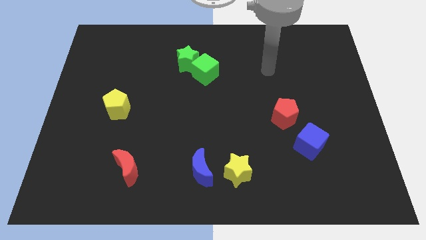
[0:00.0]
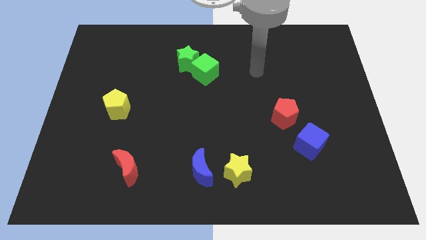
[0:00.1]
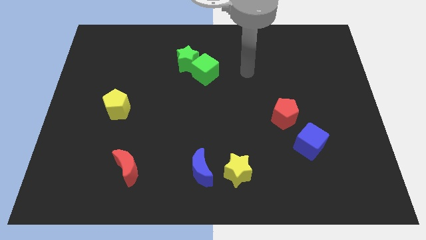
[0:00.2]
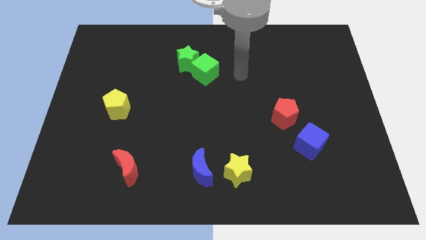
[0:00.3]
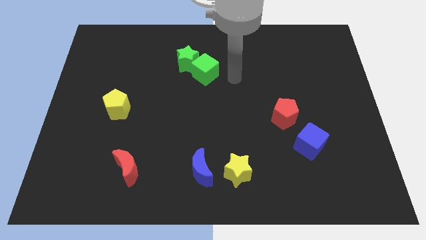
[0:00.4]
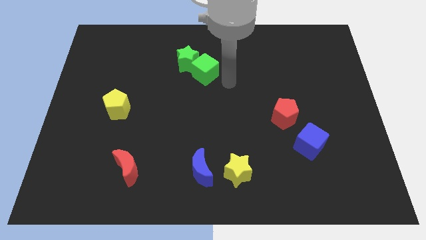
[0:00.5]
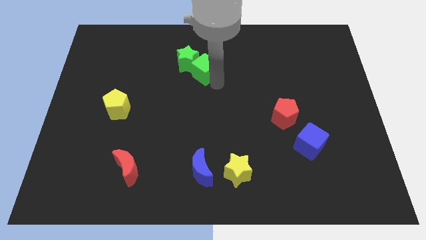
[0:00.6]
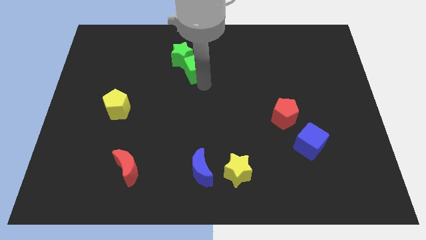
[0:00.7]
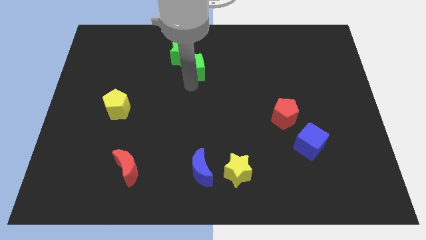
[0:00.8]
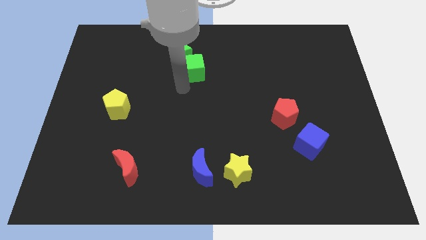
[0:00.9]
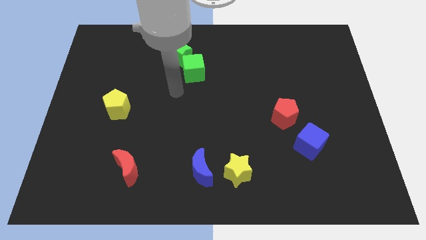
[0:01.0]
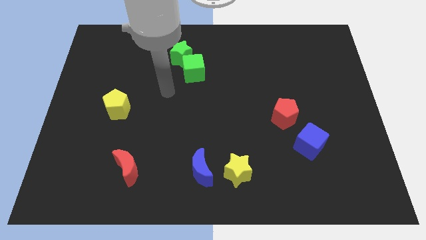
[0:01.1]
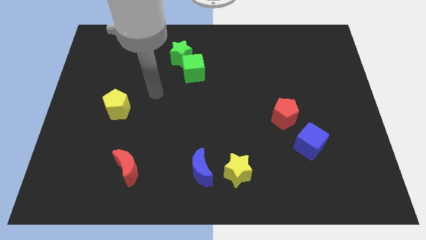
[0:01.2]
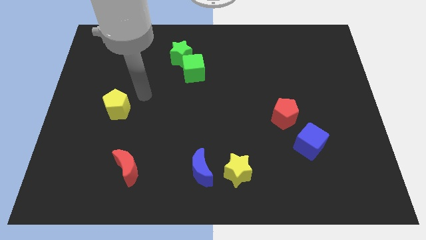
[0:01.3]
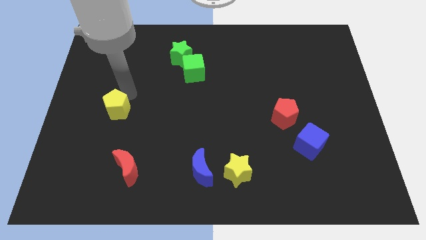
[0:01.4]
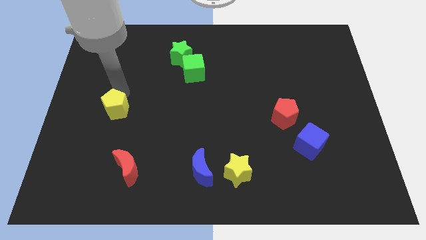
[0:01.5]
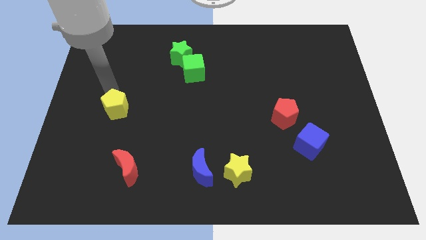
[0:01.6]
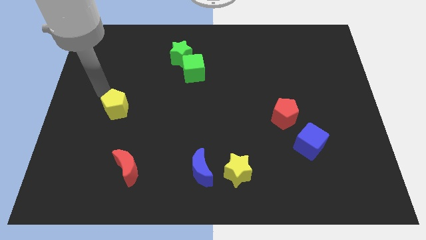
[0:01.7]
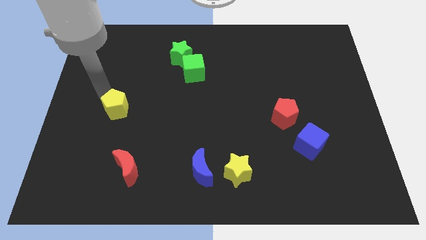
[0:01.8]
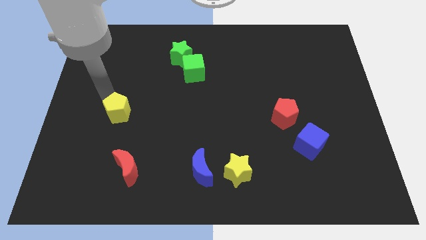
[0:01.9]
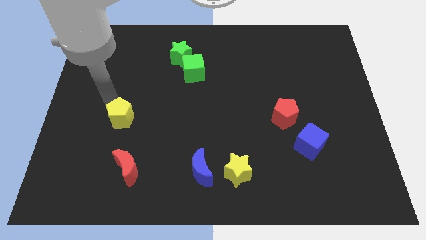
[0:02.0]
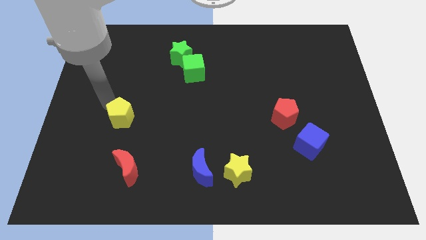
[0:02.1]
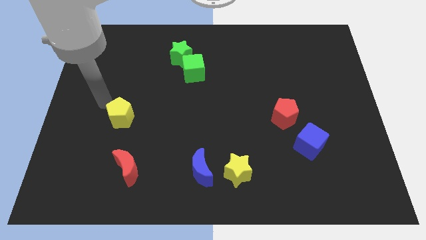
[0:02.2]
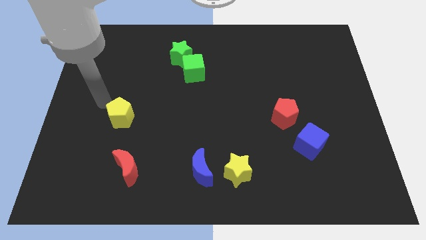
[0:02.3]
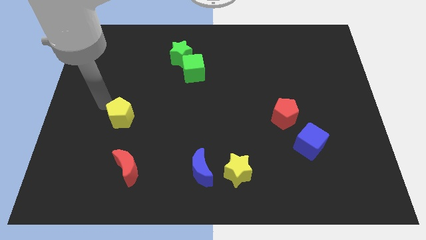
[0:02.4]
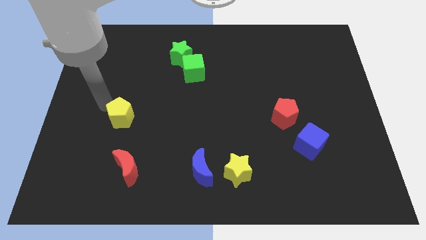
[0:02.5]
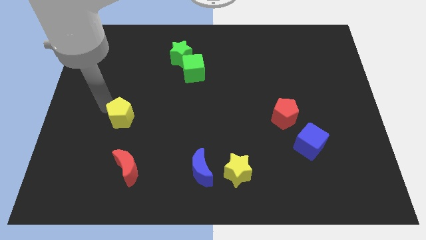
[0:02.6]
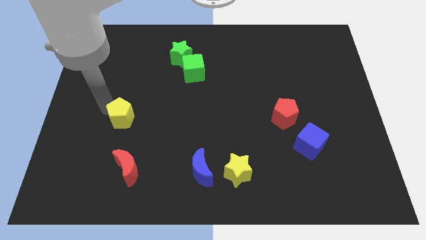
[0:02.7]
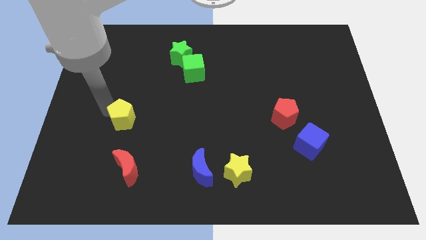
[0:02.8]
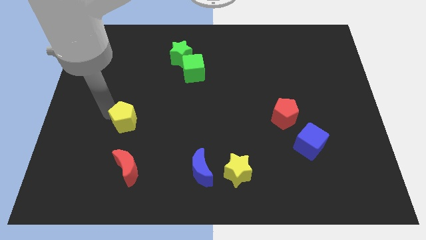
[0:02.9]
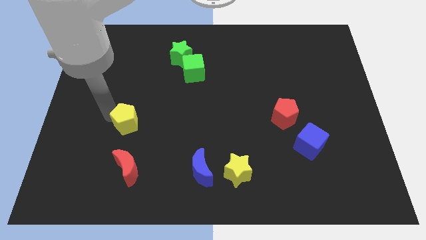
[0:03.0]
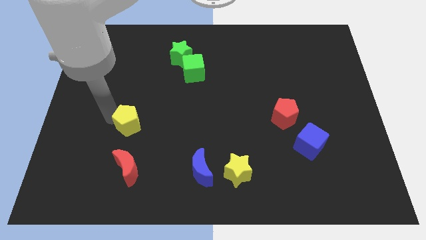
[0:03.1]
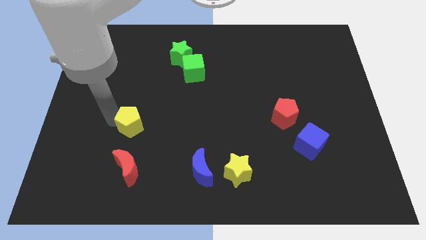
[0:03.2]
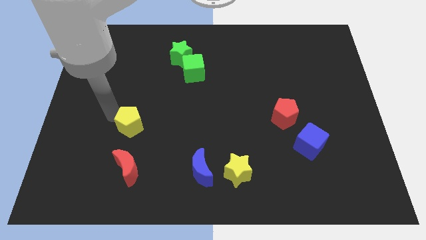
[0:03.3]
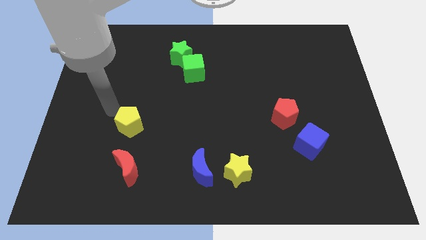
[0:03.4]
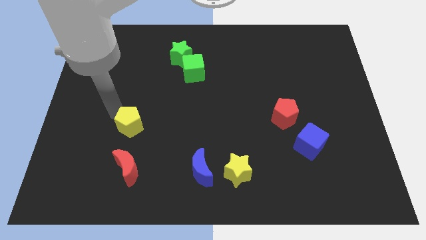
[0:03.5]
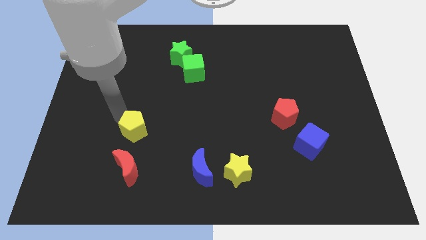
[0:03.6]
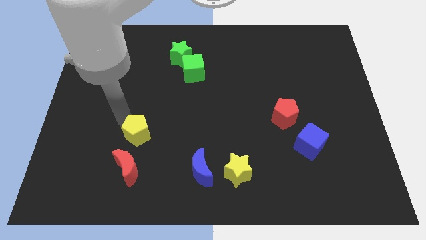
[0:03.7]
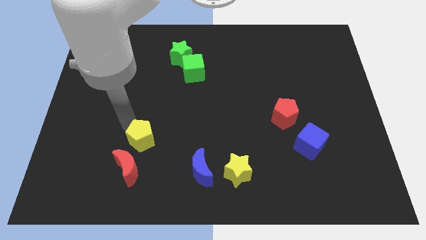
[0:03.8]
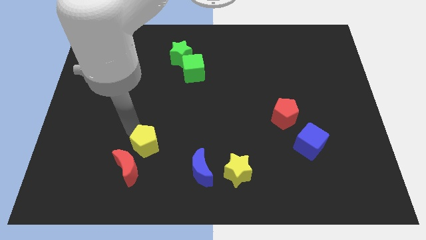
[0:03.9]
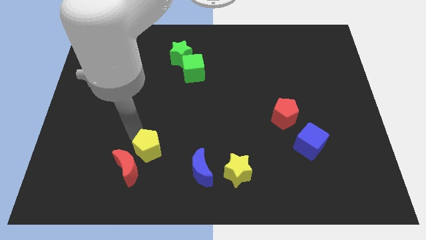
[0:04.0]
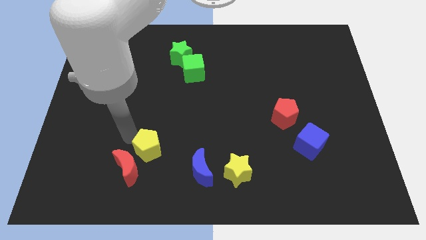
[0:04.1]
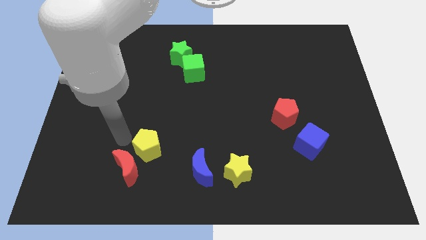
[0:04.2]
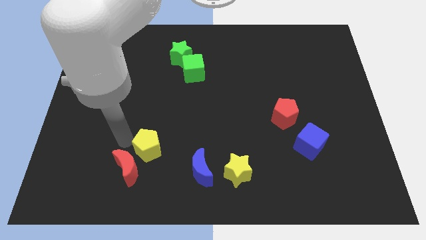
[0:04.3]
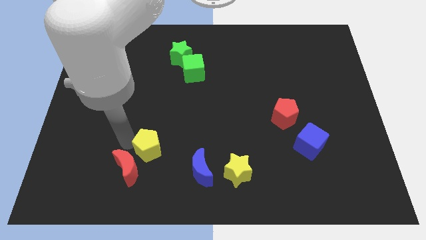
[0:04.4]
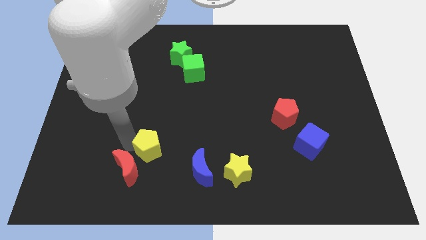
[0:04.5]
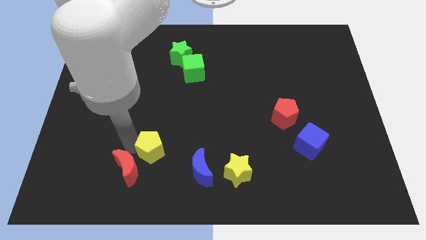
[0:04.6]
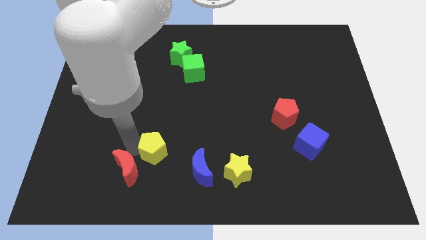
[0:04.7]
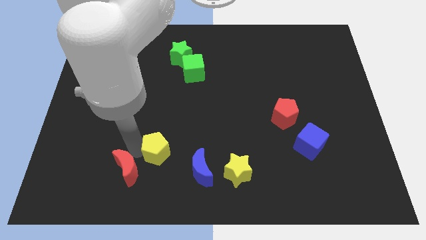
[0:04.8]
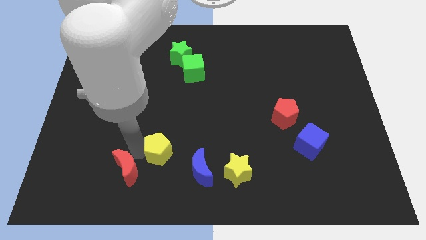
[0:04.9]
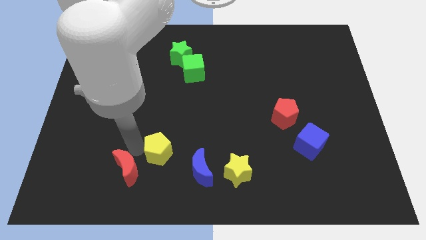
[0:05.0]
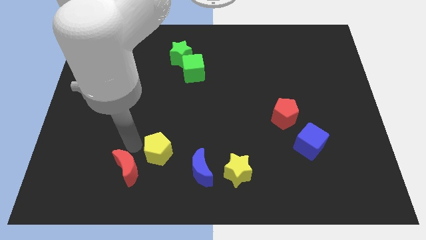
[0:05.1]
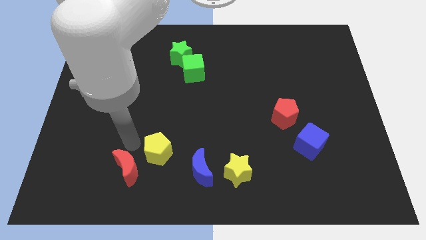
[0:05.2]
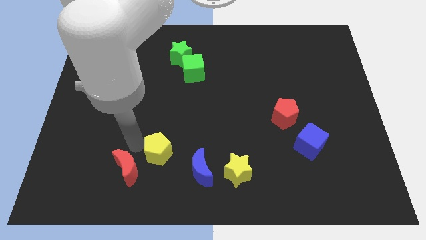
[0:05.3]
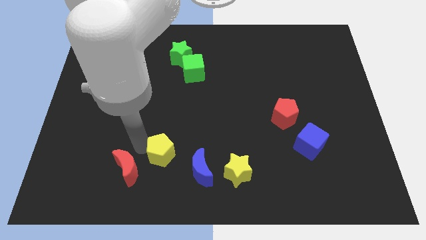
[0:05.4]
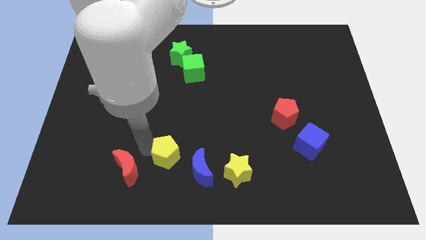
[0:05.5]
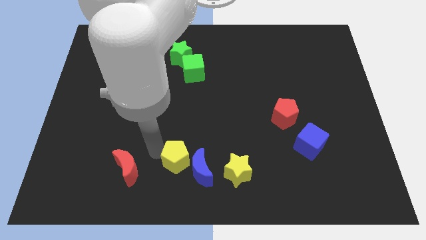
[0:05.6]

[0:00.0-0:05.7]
push the yellow pentagon close to the blue moon

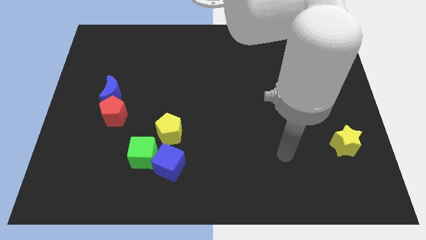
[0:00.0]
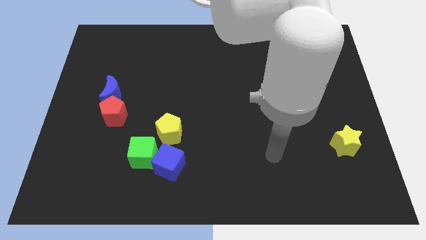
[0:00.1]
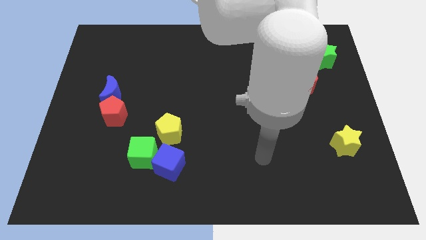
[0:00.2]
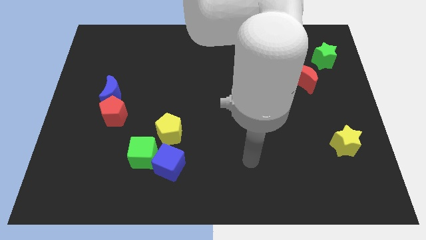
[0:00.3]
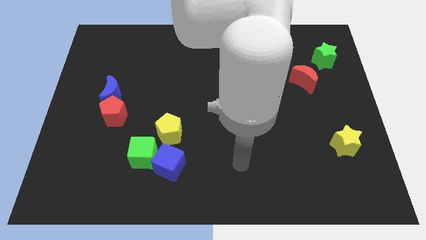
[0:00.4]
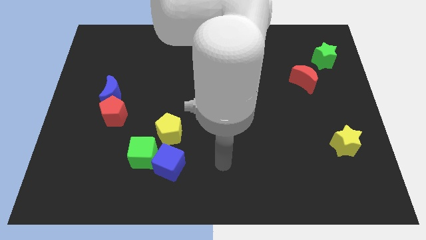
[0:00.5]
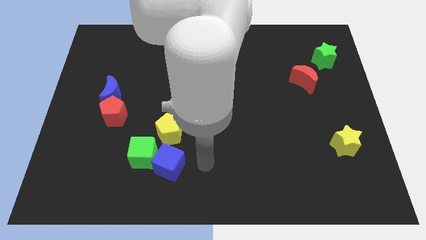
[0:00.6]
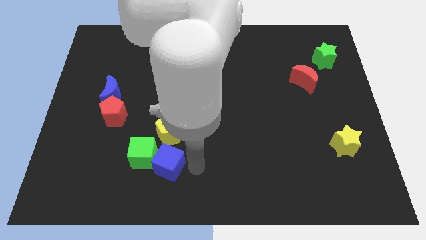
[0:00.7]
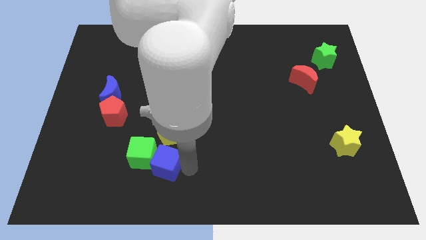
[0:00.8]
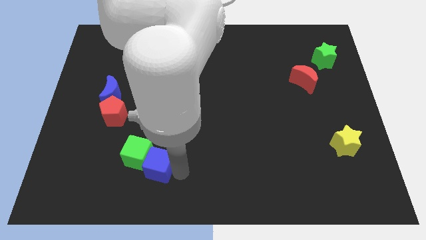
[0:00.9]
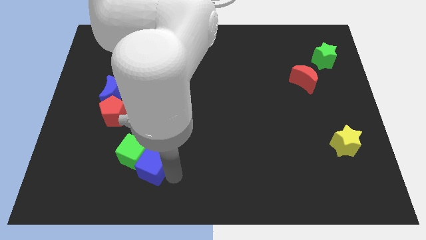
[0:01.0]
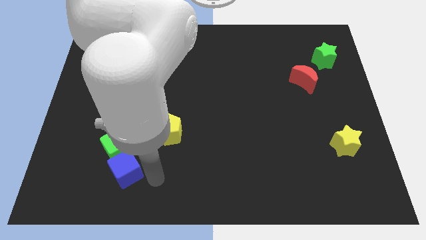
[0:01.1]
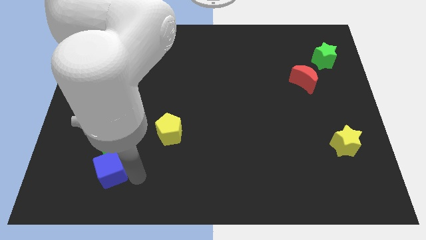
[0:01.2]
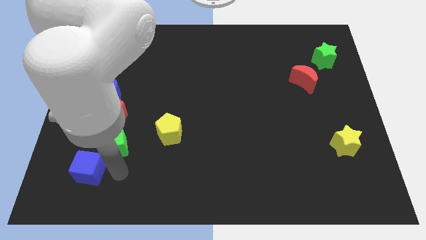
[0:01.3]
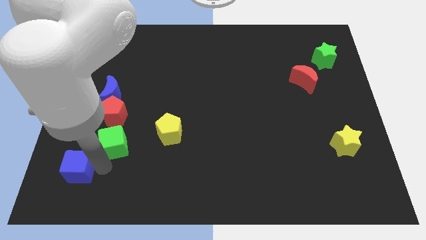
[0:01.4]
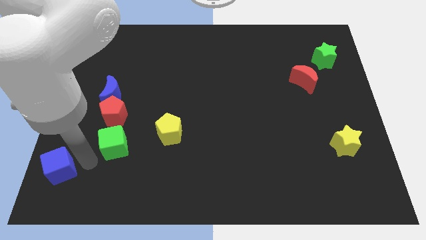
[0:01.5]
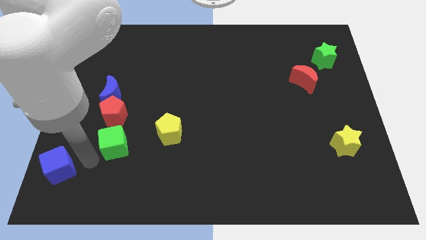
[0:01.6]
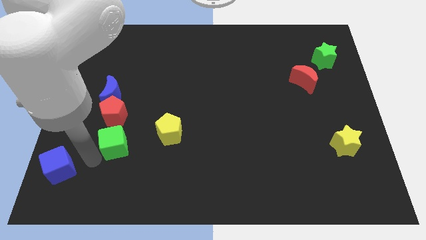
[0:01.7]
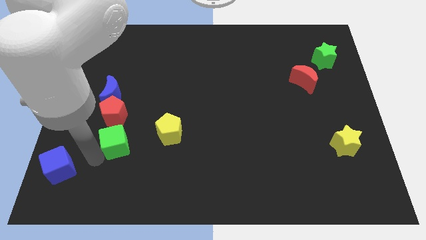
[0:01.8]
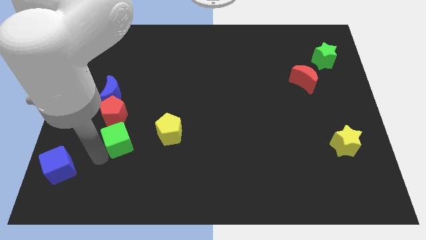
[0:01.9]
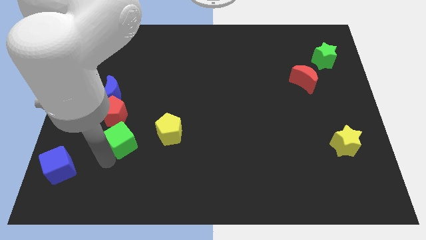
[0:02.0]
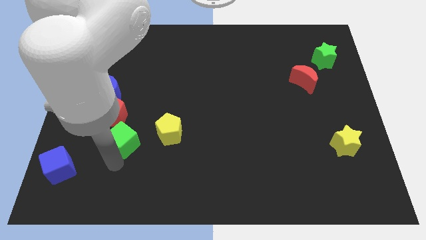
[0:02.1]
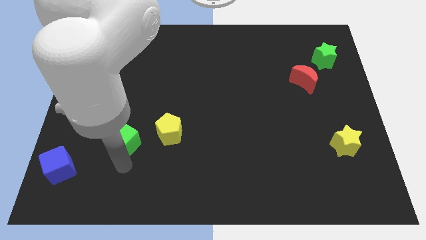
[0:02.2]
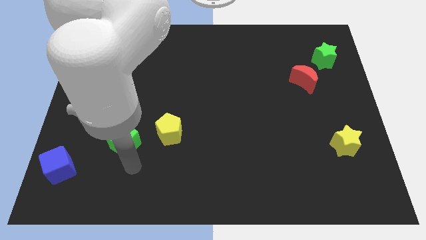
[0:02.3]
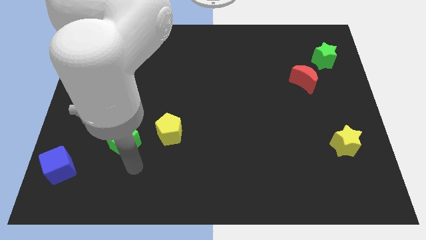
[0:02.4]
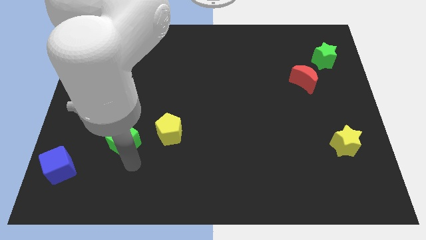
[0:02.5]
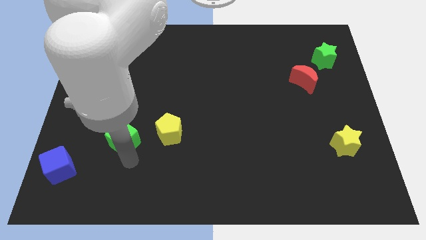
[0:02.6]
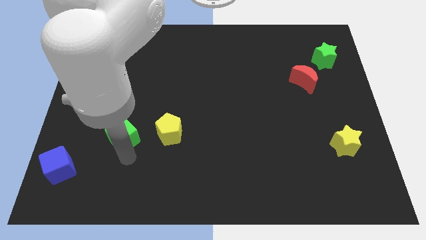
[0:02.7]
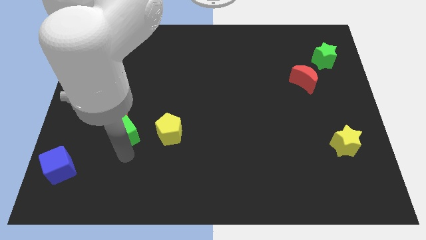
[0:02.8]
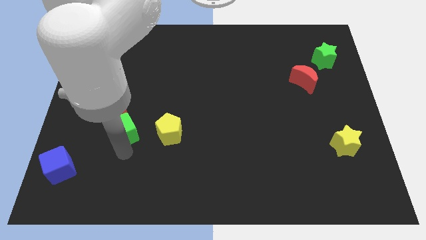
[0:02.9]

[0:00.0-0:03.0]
slide the green cube towards the red pentagon
